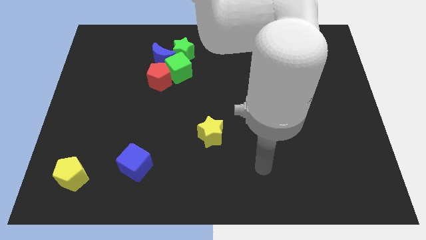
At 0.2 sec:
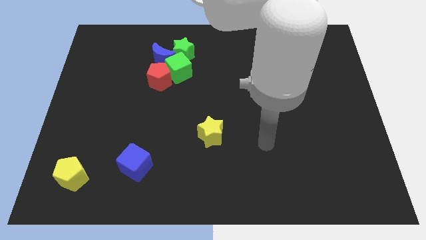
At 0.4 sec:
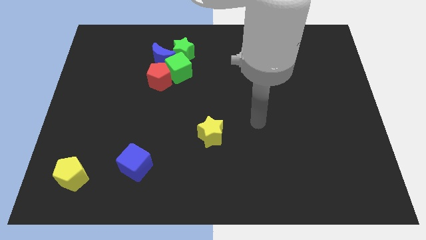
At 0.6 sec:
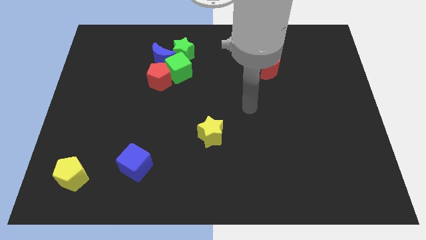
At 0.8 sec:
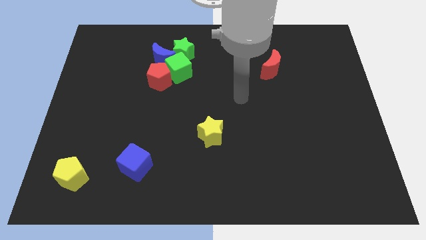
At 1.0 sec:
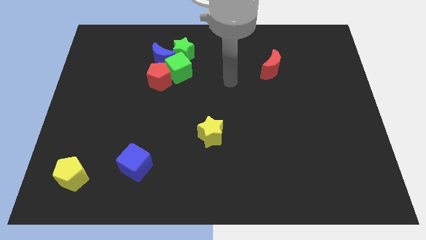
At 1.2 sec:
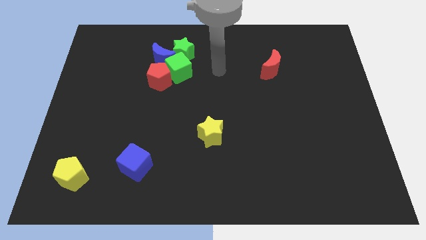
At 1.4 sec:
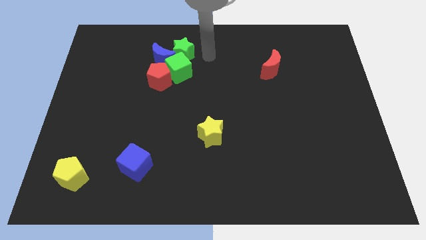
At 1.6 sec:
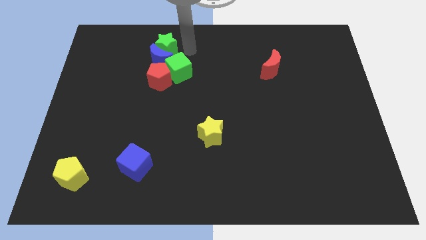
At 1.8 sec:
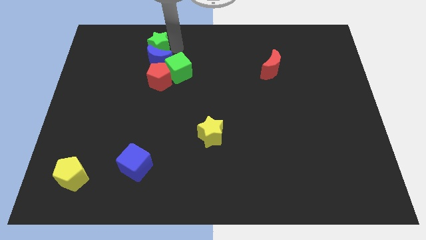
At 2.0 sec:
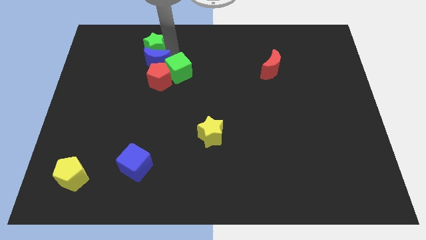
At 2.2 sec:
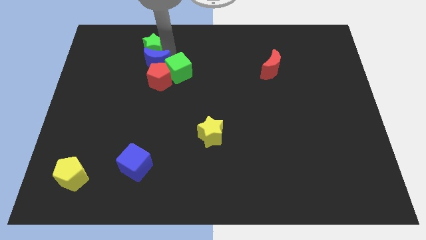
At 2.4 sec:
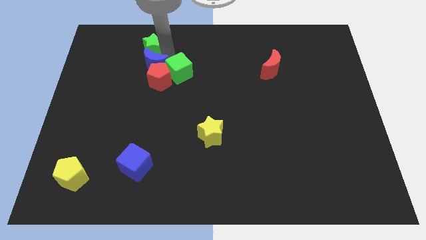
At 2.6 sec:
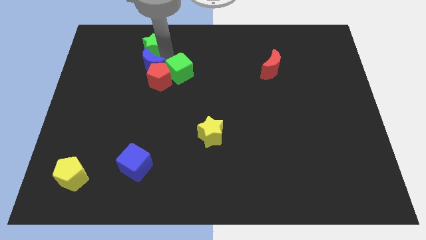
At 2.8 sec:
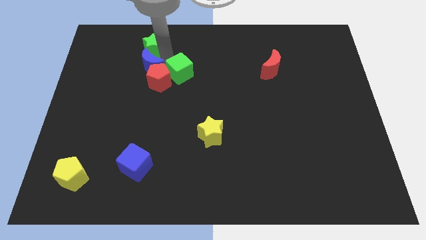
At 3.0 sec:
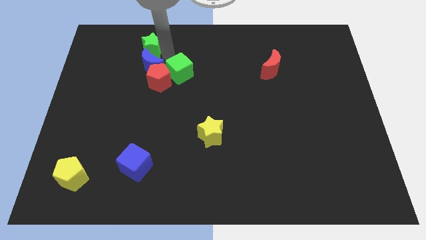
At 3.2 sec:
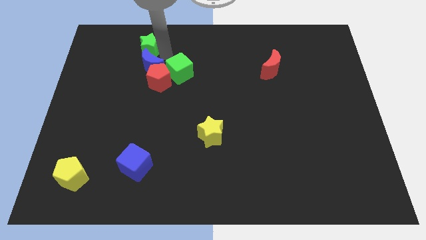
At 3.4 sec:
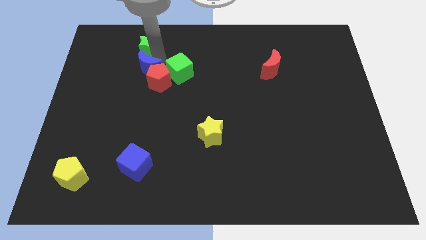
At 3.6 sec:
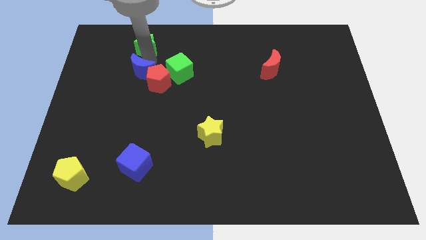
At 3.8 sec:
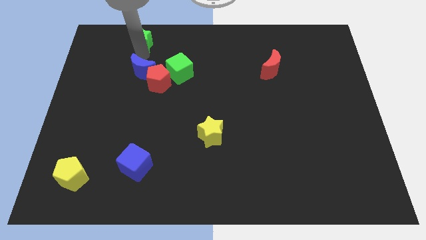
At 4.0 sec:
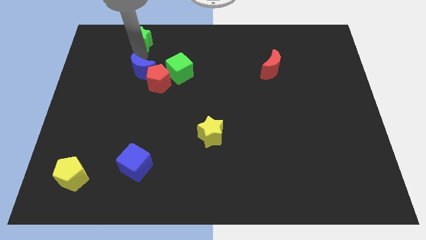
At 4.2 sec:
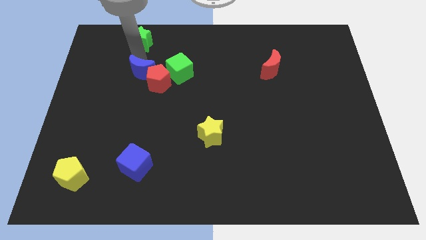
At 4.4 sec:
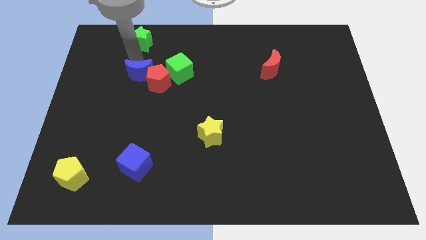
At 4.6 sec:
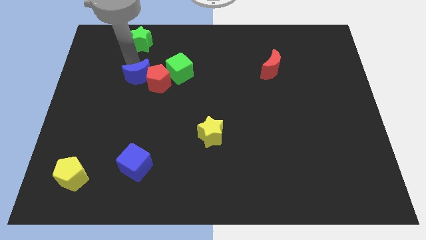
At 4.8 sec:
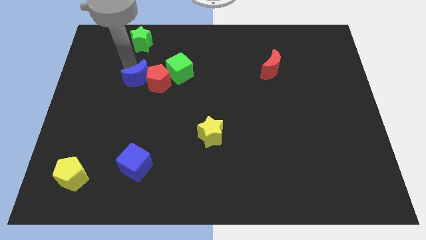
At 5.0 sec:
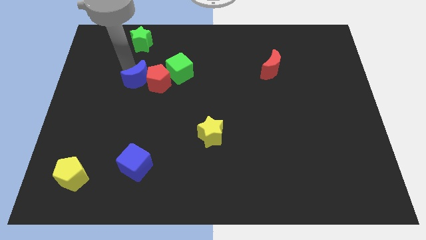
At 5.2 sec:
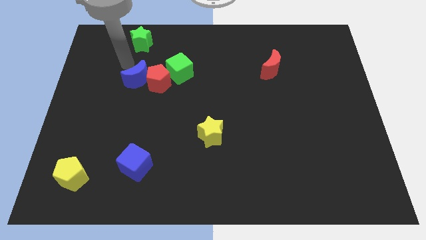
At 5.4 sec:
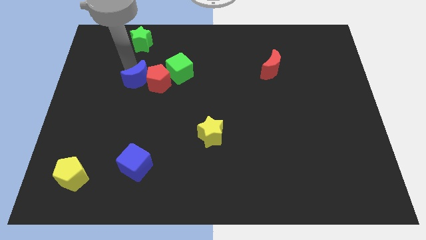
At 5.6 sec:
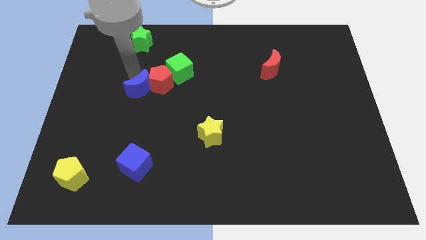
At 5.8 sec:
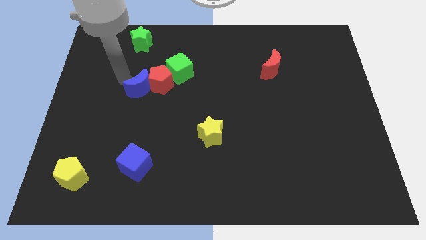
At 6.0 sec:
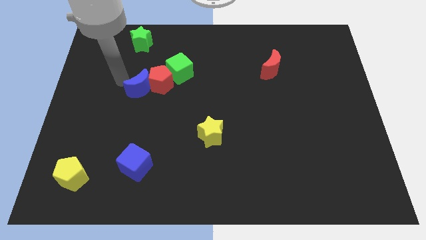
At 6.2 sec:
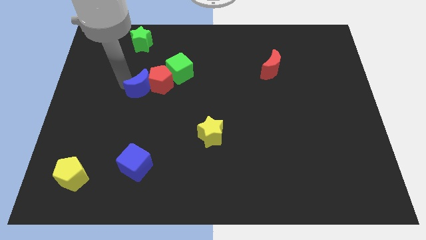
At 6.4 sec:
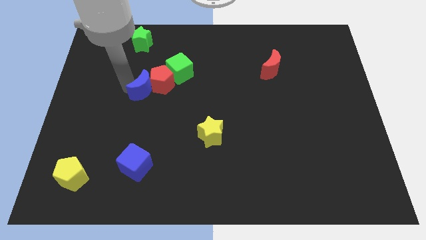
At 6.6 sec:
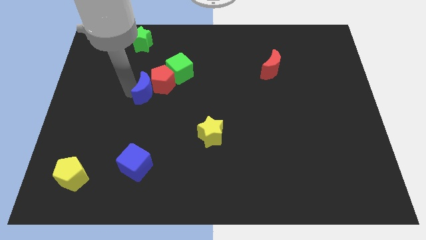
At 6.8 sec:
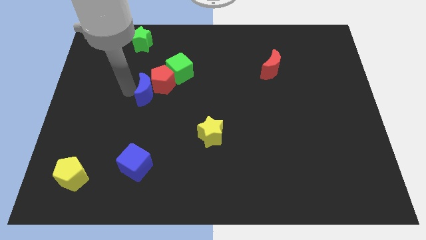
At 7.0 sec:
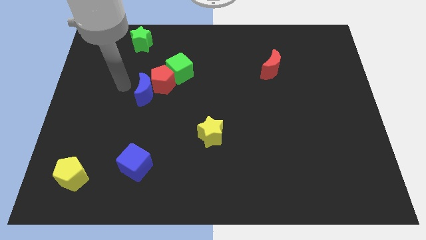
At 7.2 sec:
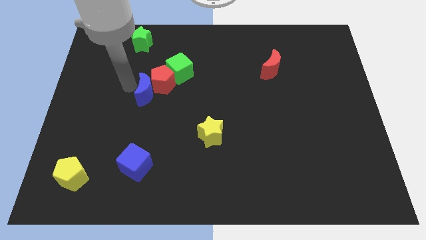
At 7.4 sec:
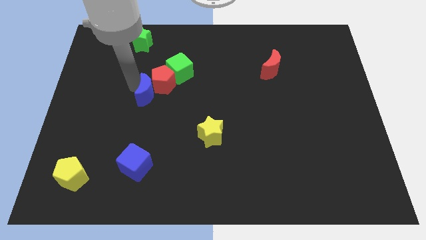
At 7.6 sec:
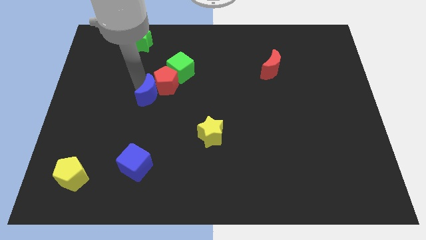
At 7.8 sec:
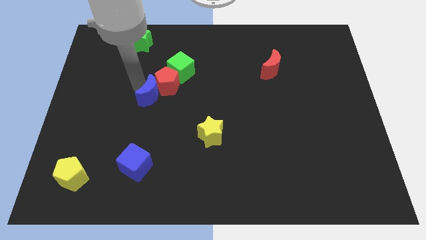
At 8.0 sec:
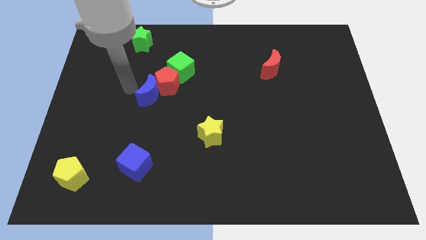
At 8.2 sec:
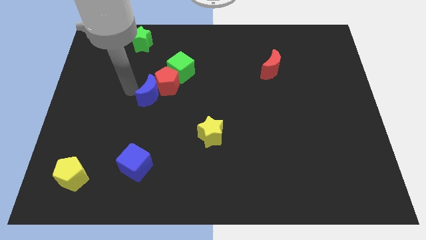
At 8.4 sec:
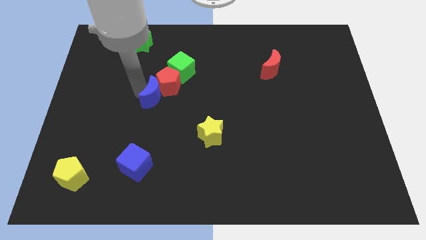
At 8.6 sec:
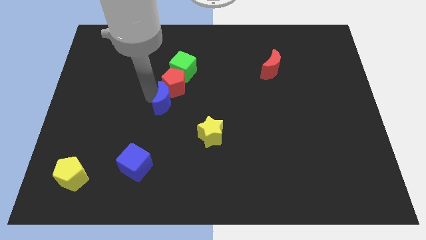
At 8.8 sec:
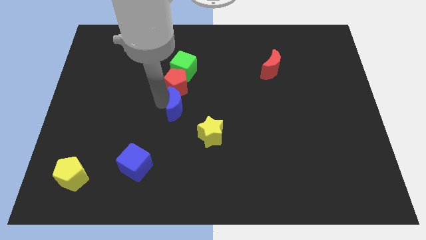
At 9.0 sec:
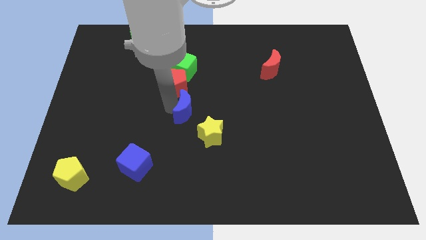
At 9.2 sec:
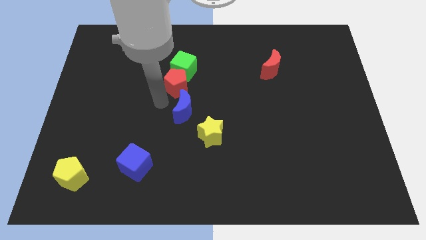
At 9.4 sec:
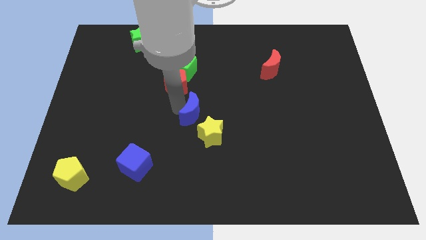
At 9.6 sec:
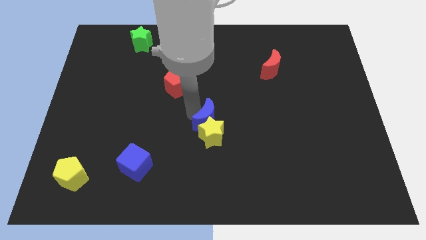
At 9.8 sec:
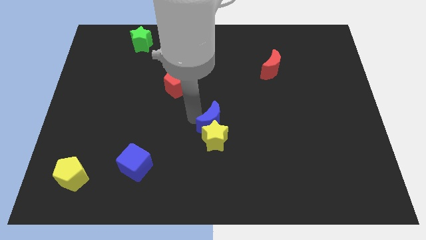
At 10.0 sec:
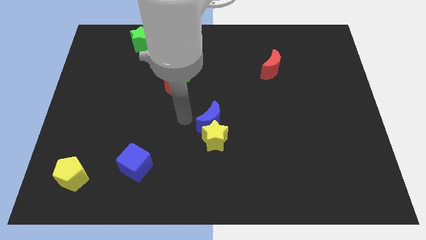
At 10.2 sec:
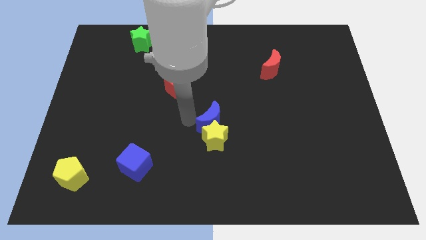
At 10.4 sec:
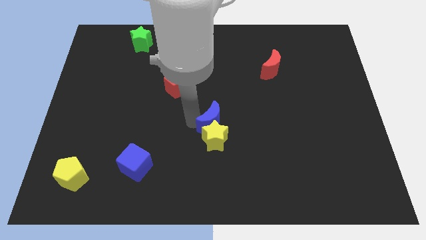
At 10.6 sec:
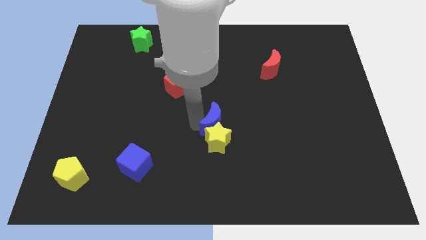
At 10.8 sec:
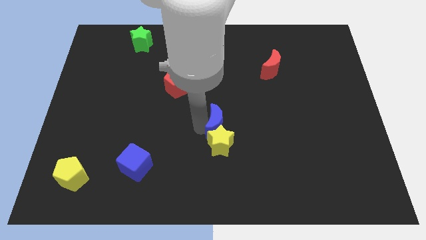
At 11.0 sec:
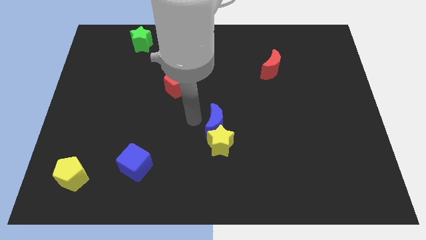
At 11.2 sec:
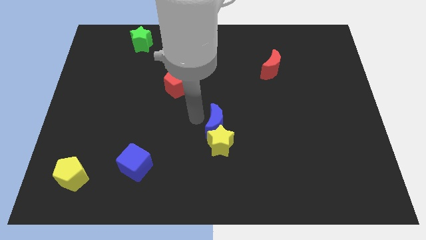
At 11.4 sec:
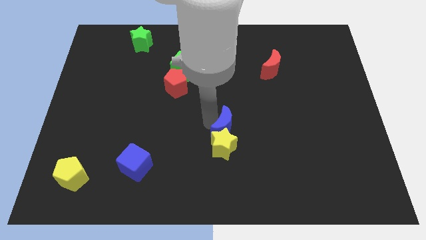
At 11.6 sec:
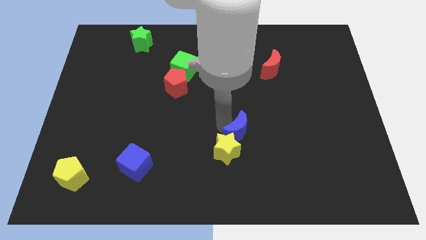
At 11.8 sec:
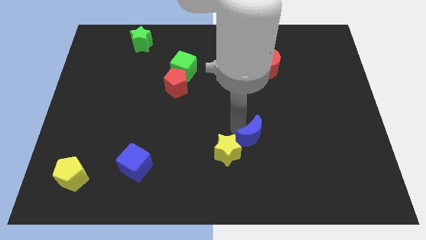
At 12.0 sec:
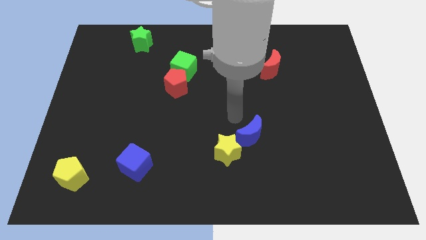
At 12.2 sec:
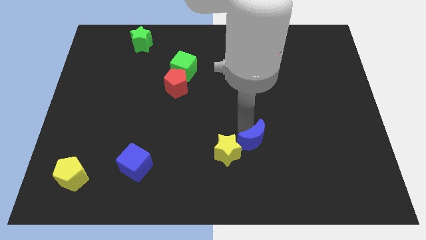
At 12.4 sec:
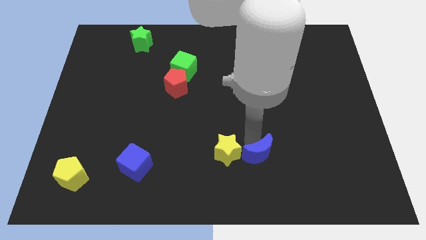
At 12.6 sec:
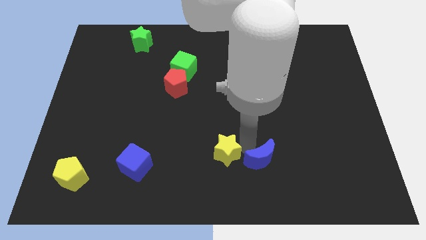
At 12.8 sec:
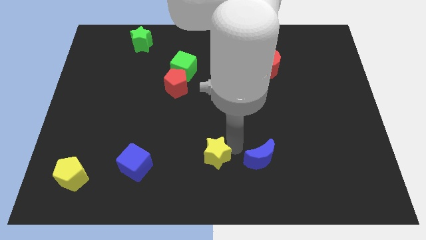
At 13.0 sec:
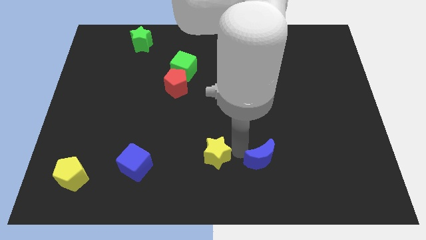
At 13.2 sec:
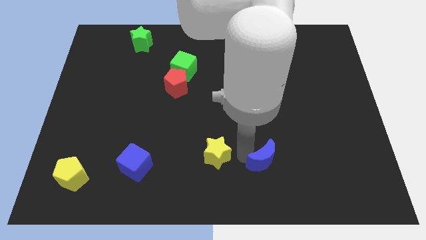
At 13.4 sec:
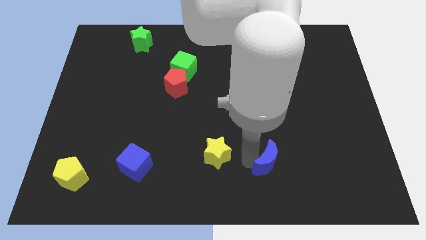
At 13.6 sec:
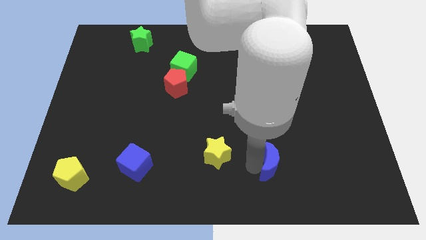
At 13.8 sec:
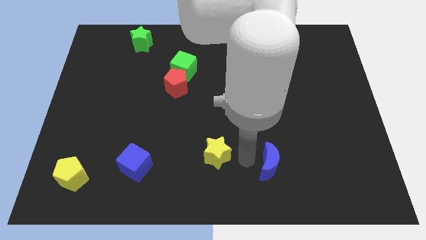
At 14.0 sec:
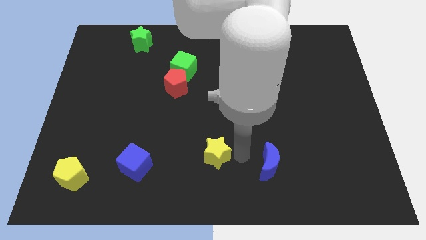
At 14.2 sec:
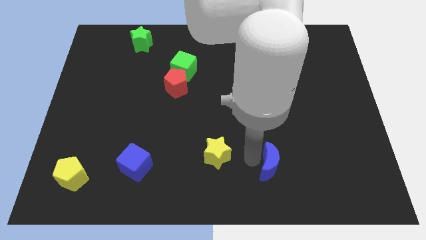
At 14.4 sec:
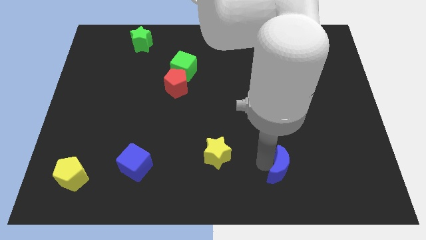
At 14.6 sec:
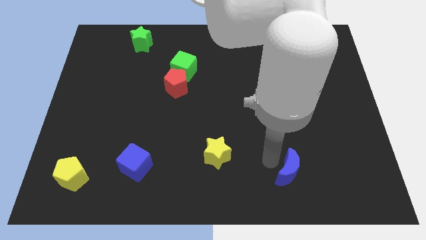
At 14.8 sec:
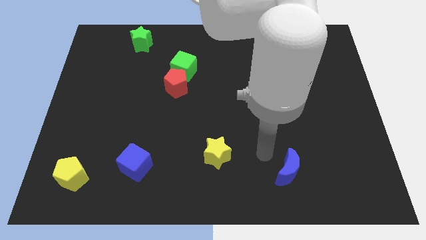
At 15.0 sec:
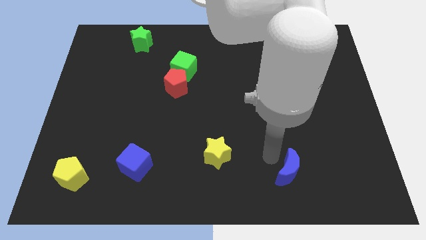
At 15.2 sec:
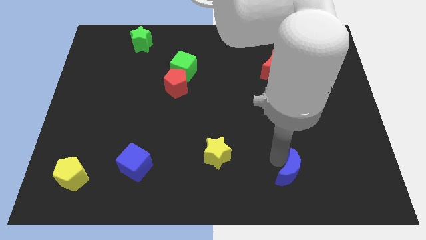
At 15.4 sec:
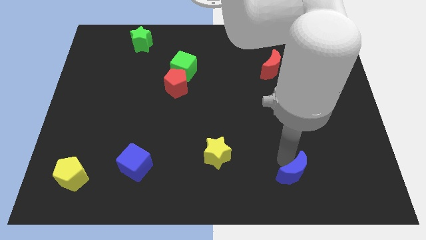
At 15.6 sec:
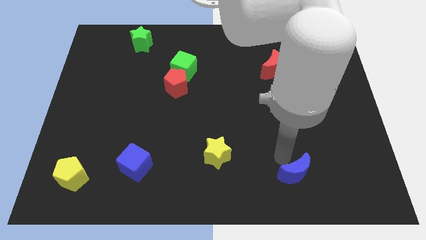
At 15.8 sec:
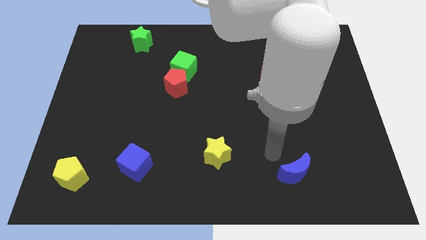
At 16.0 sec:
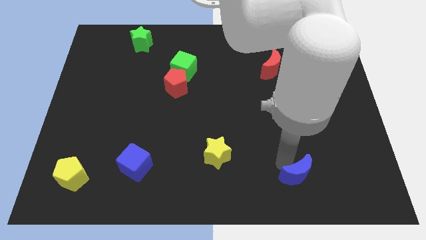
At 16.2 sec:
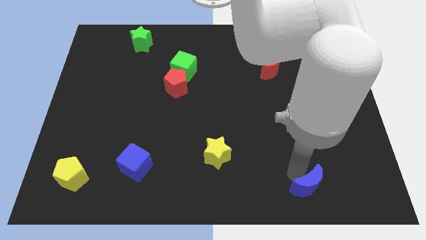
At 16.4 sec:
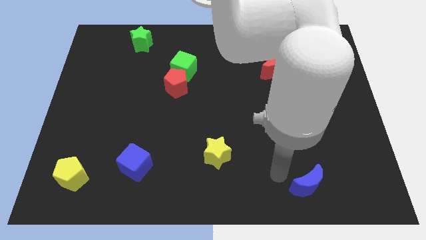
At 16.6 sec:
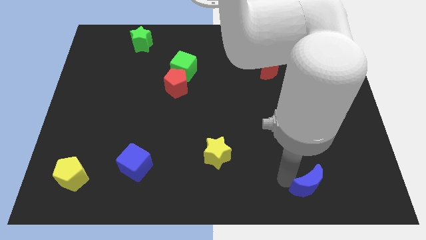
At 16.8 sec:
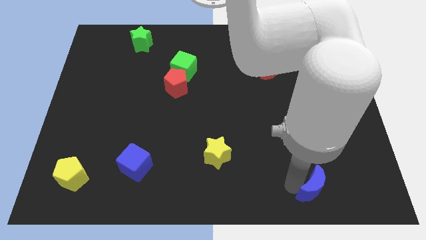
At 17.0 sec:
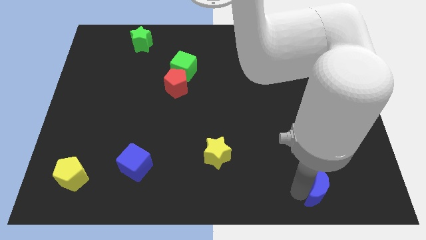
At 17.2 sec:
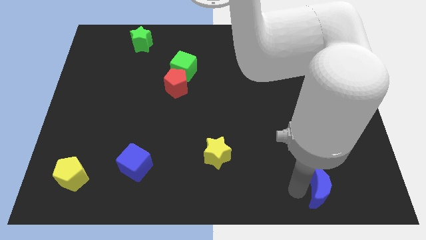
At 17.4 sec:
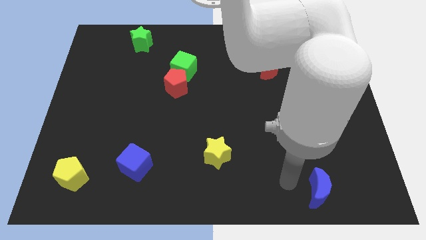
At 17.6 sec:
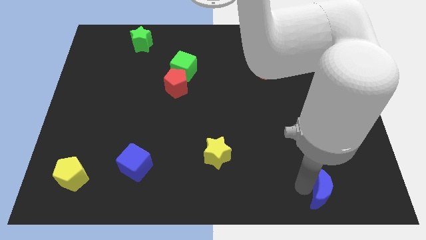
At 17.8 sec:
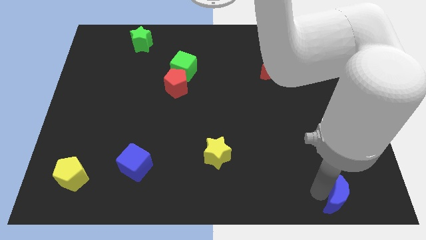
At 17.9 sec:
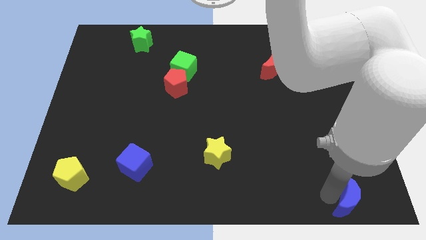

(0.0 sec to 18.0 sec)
put the blue moon to the bottom right of the board
